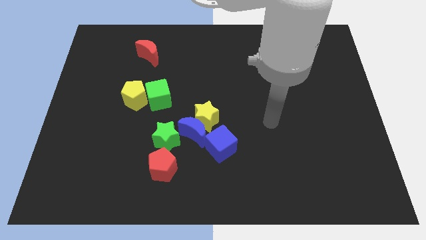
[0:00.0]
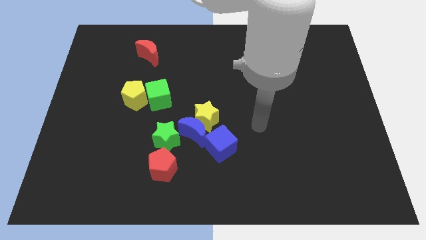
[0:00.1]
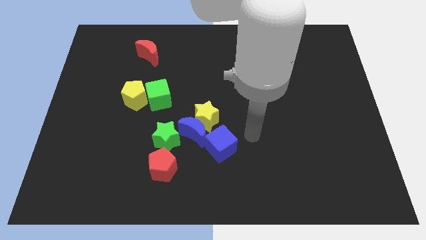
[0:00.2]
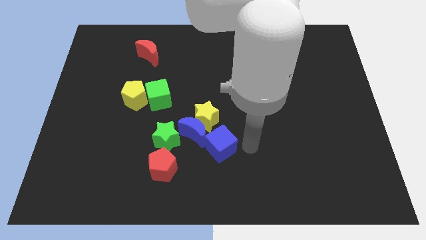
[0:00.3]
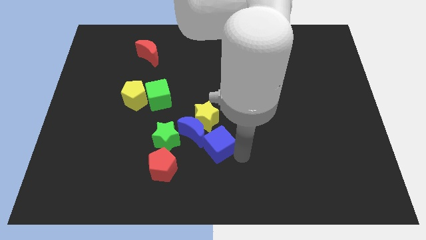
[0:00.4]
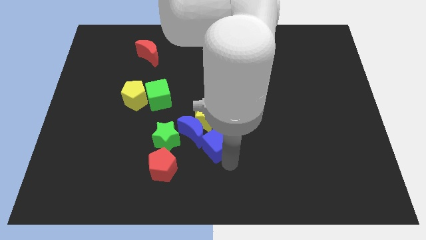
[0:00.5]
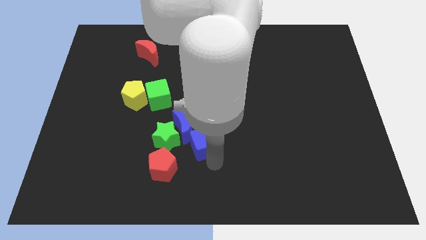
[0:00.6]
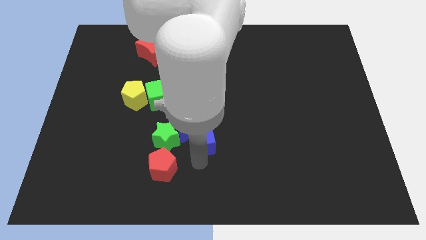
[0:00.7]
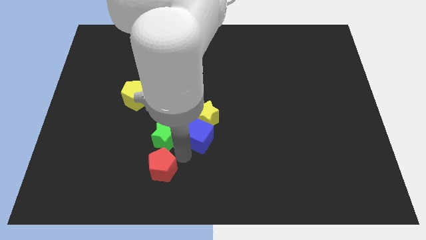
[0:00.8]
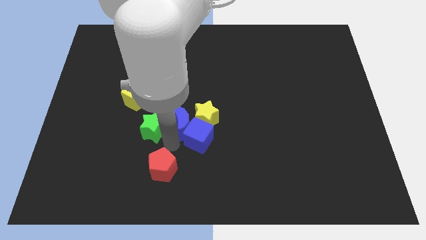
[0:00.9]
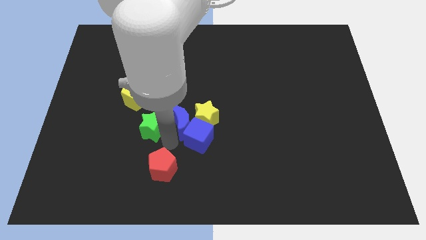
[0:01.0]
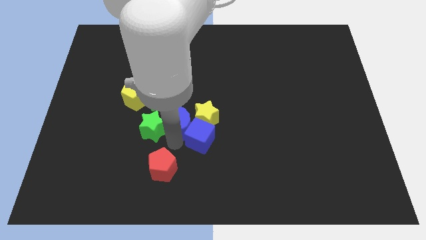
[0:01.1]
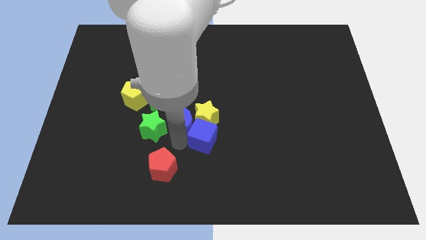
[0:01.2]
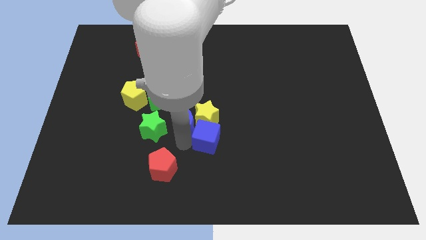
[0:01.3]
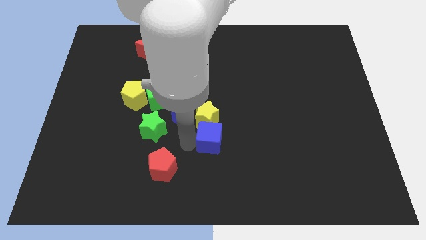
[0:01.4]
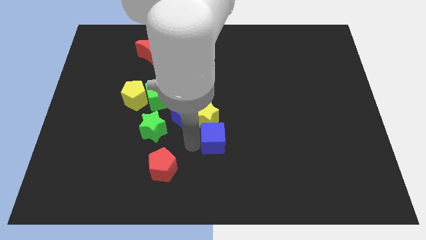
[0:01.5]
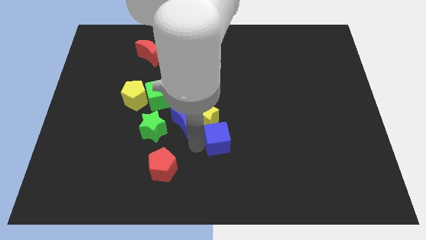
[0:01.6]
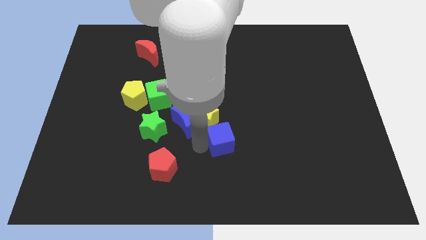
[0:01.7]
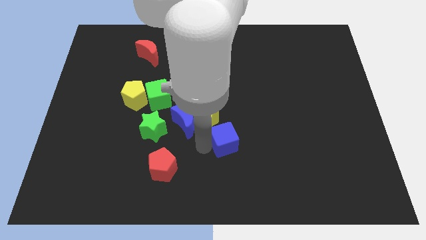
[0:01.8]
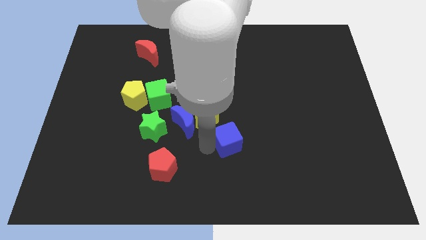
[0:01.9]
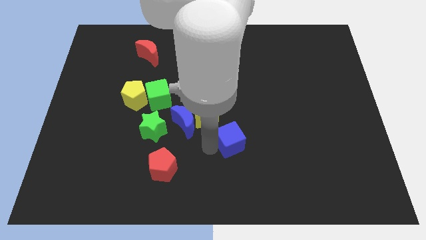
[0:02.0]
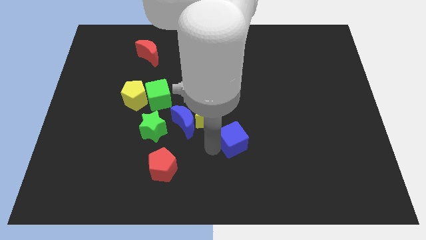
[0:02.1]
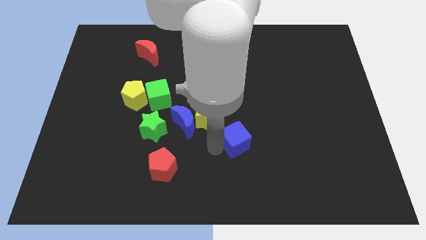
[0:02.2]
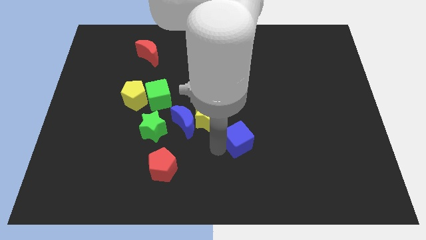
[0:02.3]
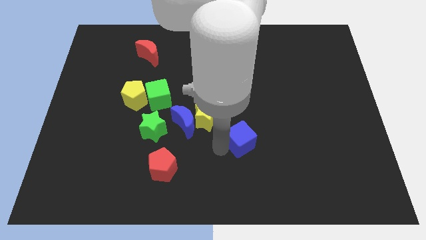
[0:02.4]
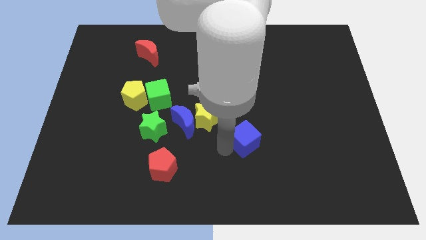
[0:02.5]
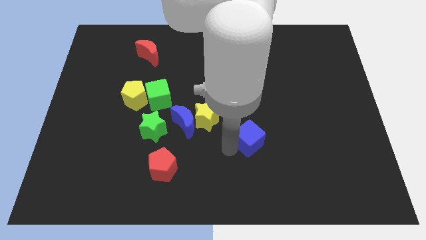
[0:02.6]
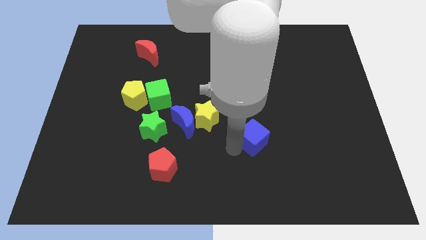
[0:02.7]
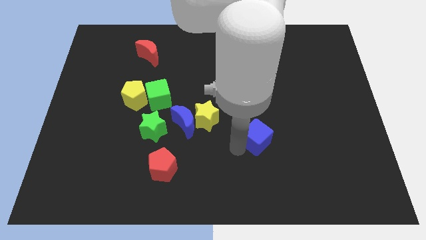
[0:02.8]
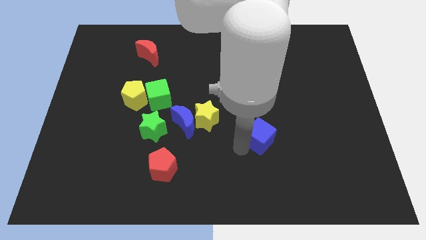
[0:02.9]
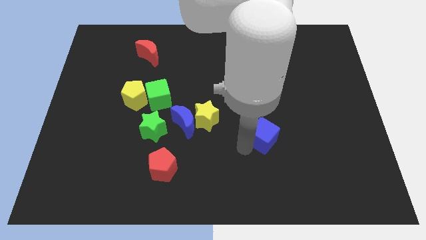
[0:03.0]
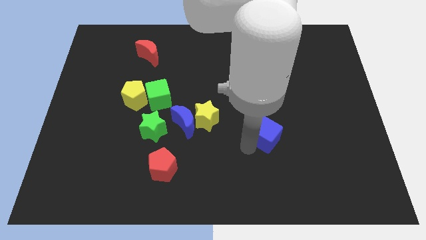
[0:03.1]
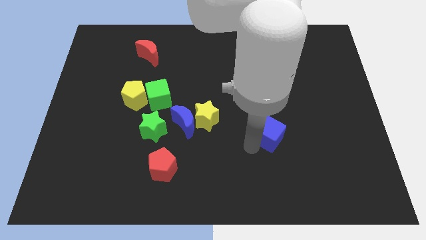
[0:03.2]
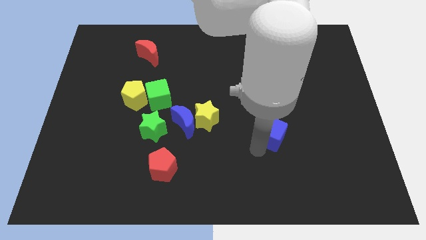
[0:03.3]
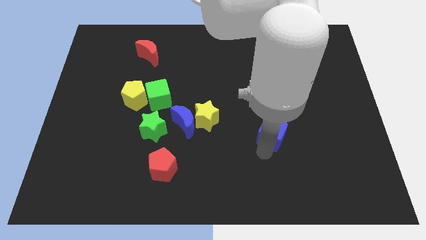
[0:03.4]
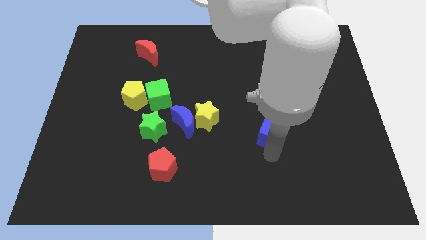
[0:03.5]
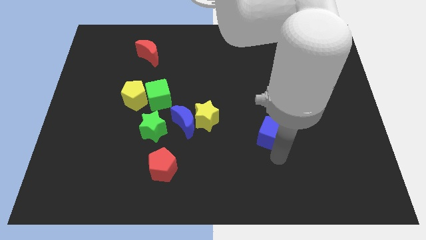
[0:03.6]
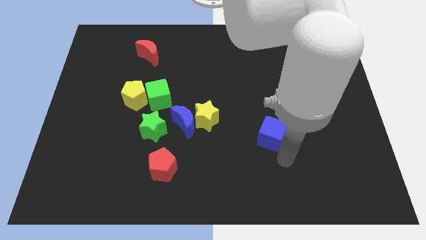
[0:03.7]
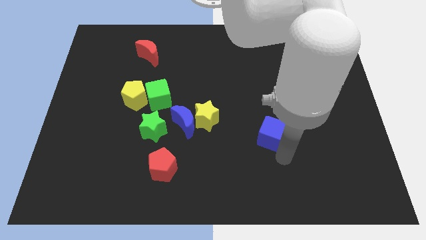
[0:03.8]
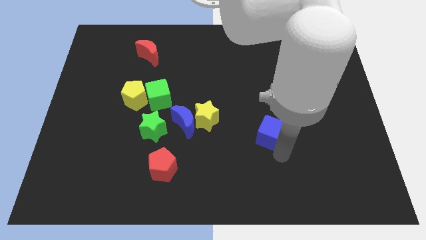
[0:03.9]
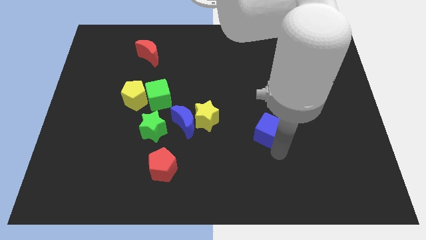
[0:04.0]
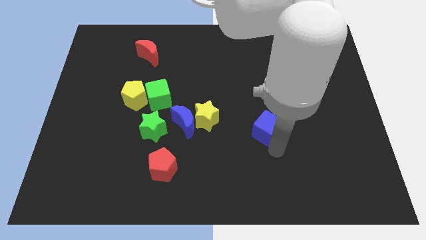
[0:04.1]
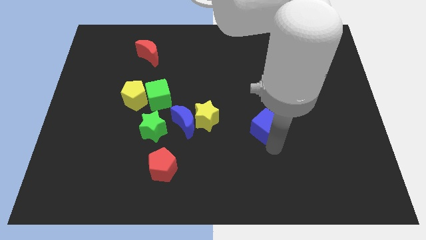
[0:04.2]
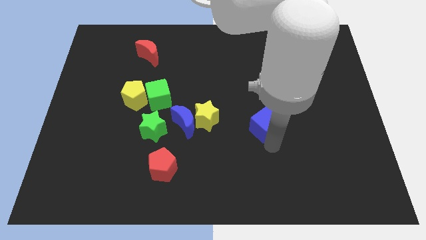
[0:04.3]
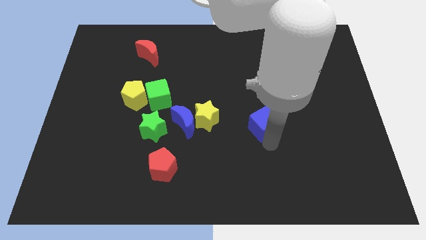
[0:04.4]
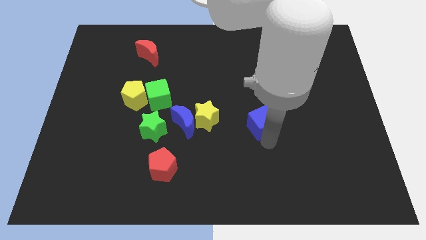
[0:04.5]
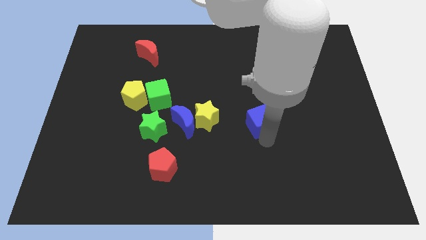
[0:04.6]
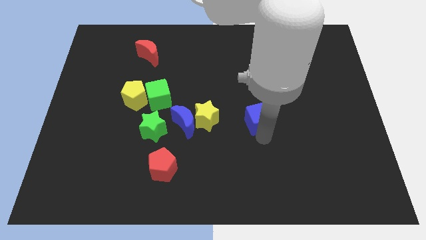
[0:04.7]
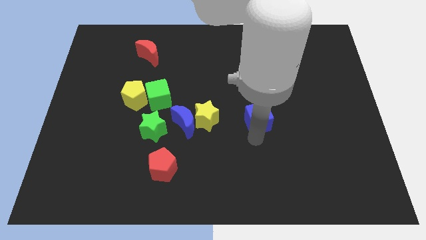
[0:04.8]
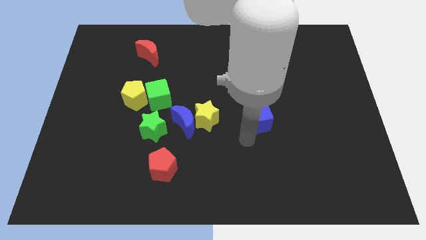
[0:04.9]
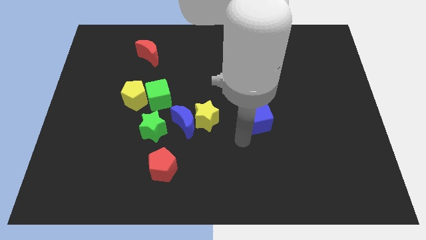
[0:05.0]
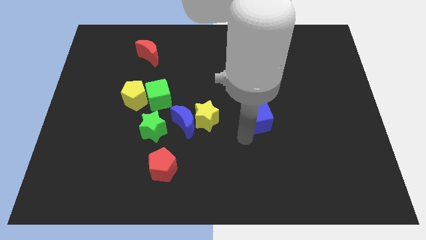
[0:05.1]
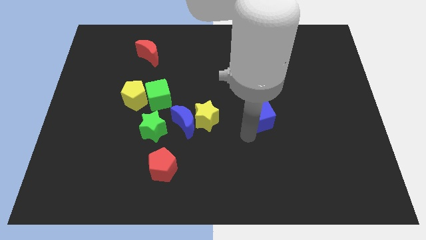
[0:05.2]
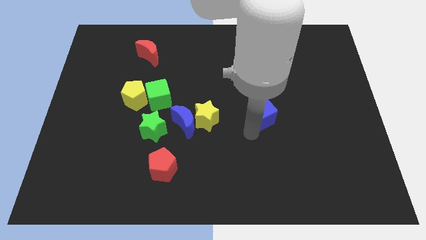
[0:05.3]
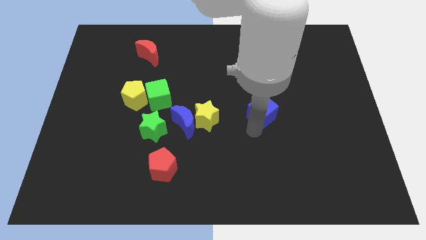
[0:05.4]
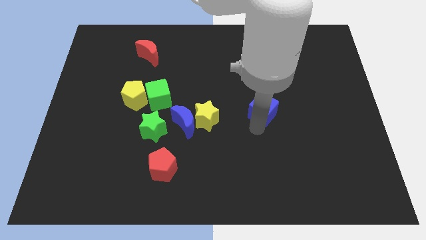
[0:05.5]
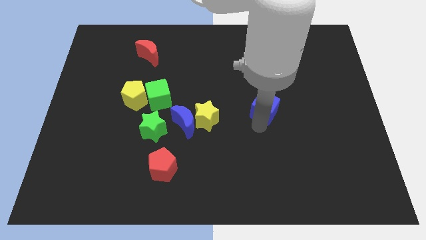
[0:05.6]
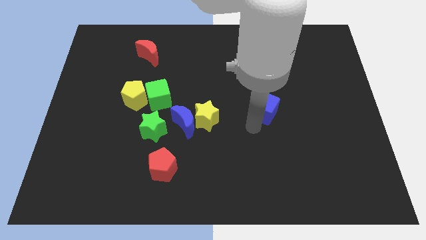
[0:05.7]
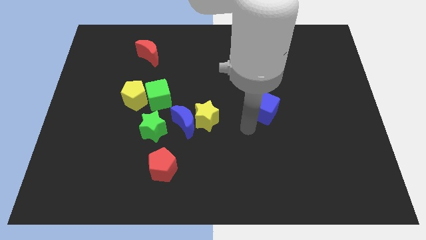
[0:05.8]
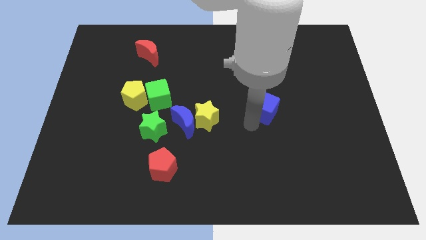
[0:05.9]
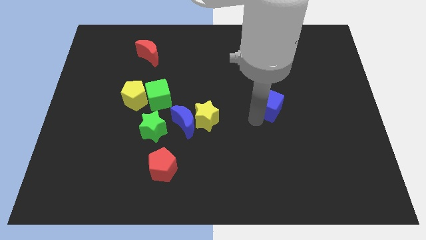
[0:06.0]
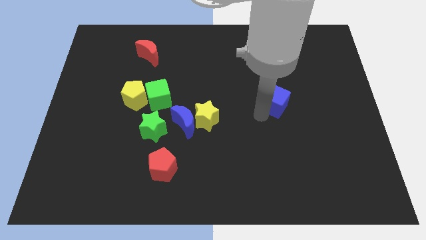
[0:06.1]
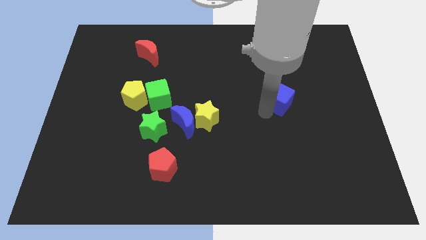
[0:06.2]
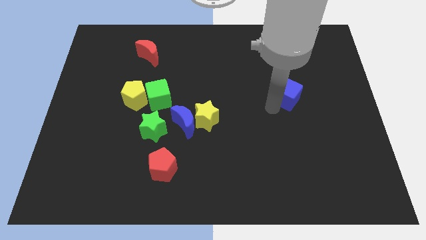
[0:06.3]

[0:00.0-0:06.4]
slide the blue cube up and then to the right

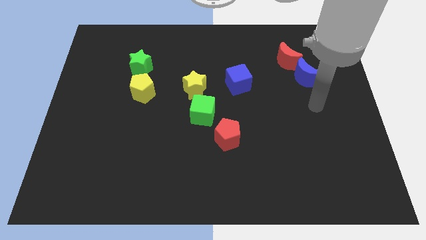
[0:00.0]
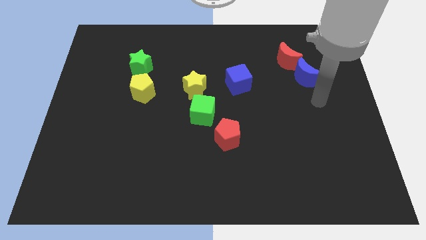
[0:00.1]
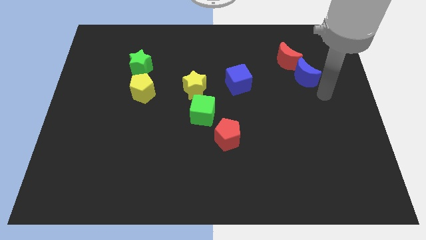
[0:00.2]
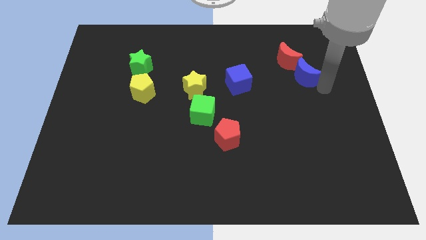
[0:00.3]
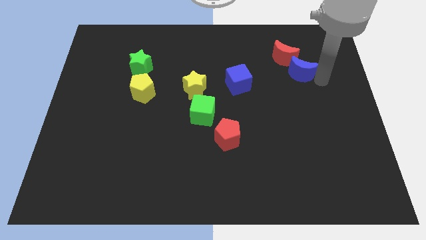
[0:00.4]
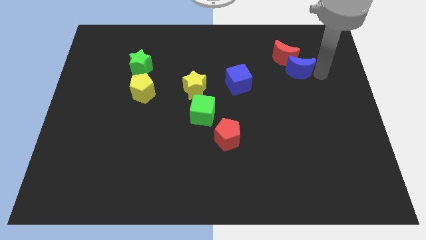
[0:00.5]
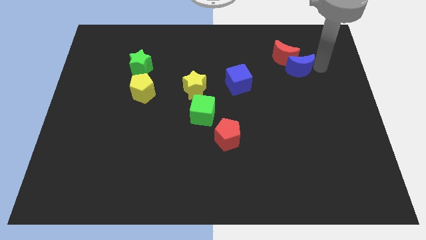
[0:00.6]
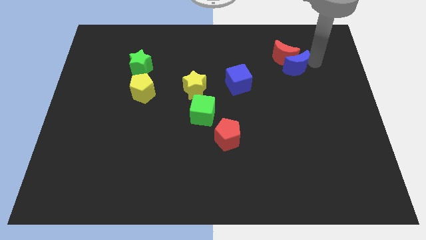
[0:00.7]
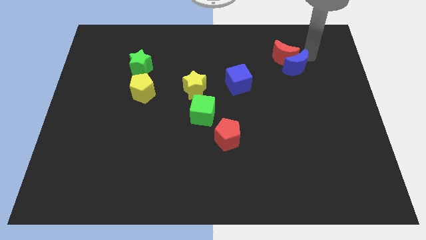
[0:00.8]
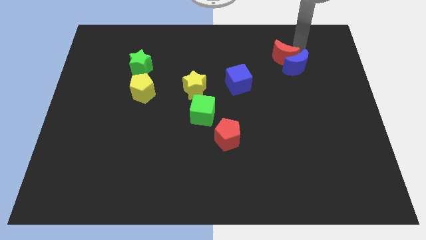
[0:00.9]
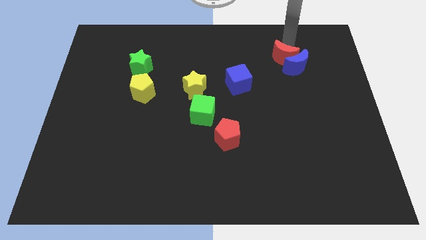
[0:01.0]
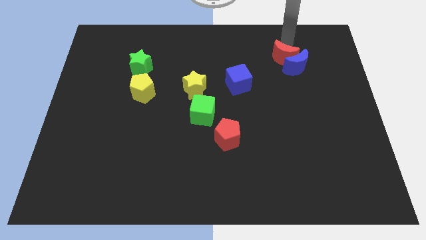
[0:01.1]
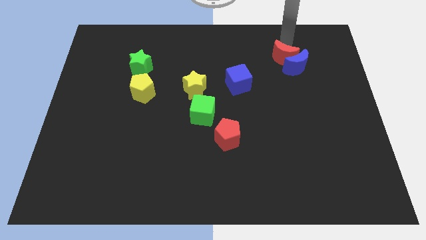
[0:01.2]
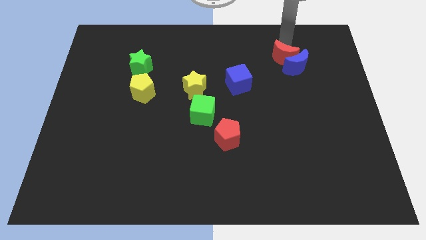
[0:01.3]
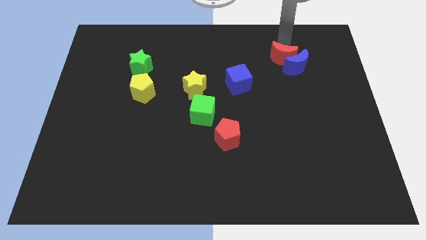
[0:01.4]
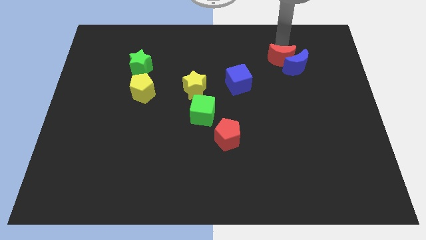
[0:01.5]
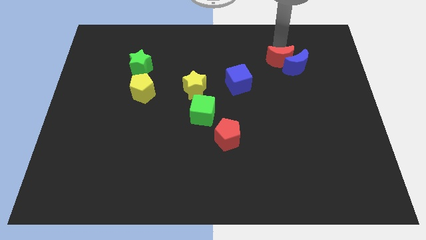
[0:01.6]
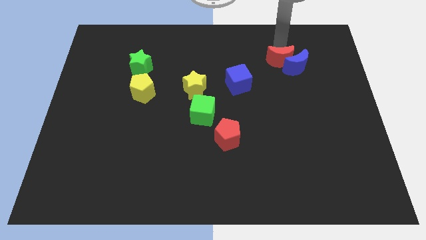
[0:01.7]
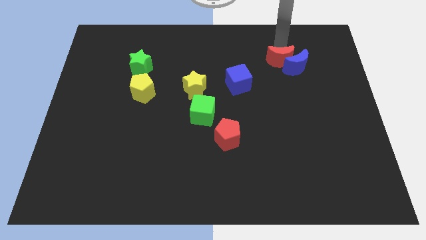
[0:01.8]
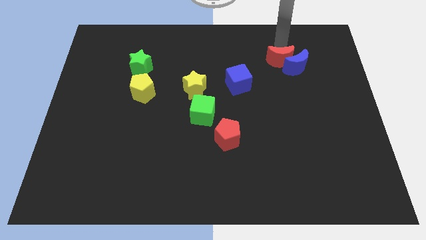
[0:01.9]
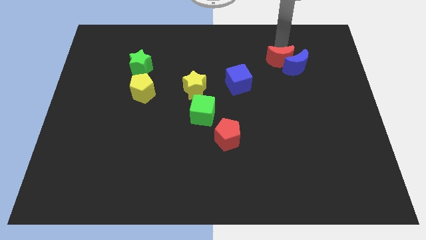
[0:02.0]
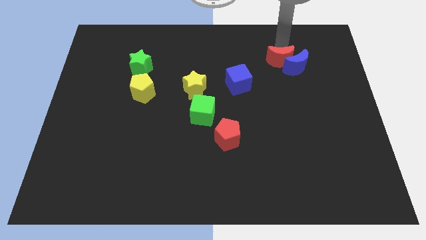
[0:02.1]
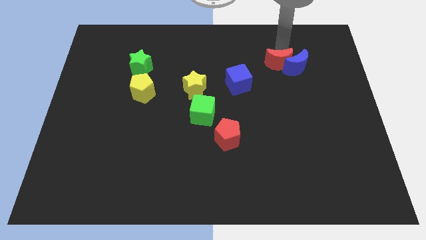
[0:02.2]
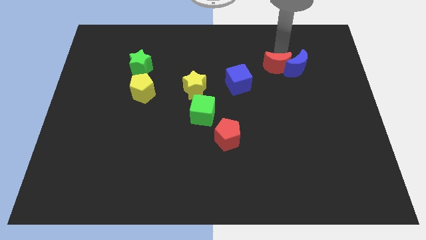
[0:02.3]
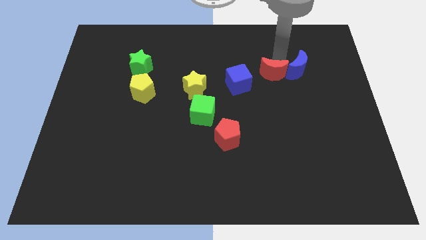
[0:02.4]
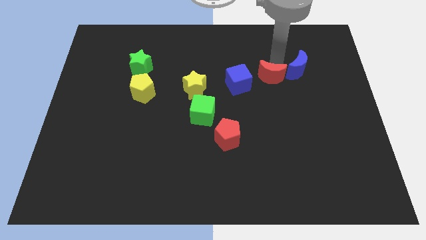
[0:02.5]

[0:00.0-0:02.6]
slide the red moon slightly diagonally downwards and to the left
